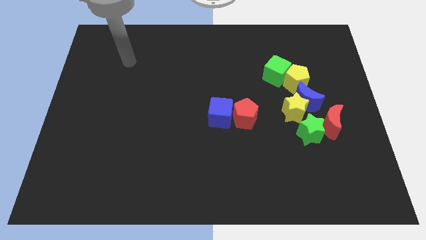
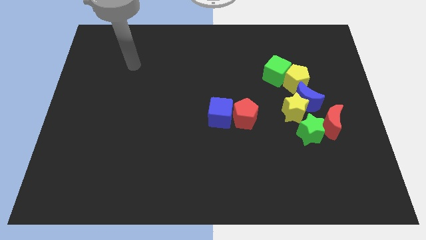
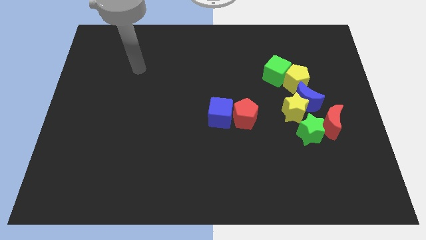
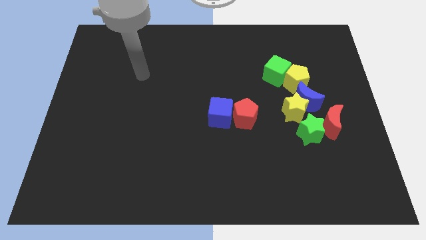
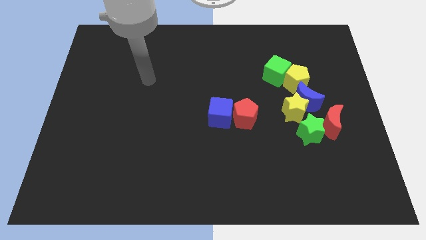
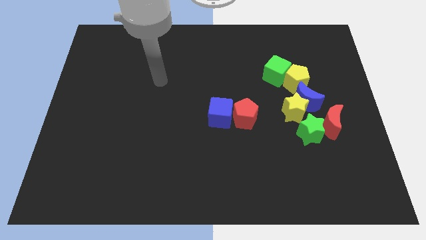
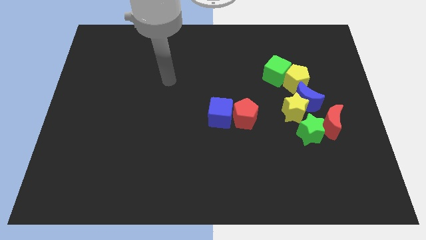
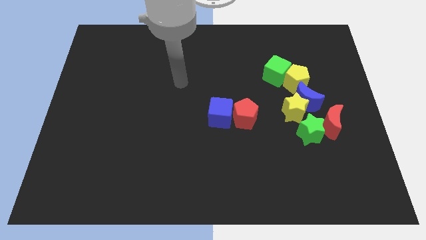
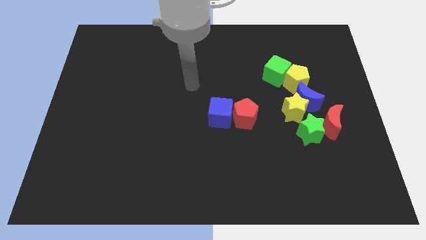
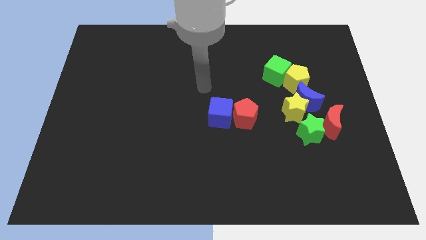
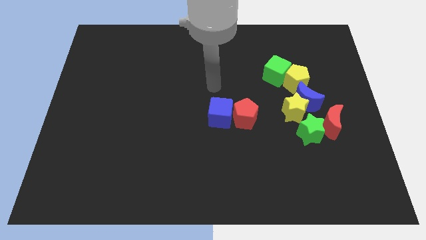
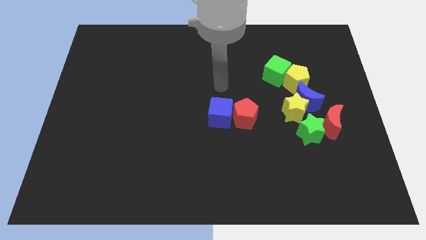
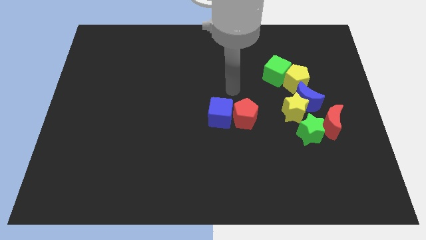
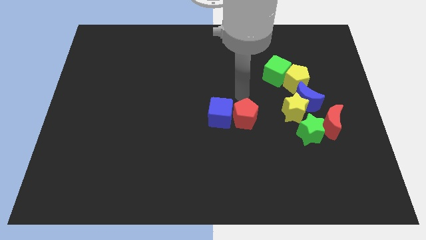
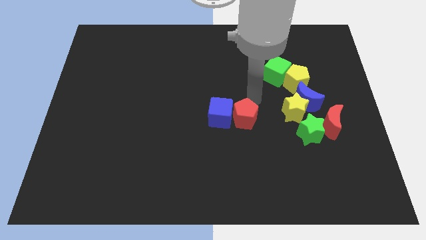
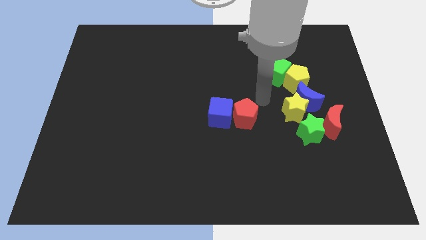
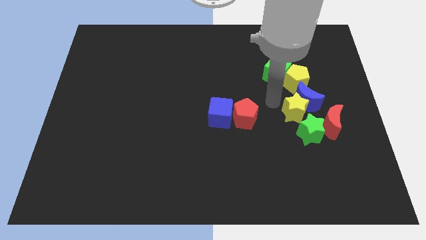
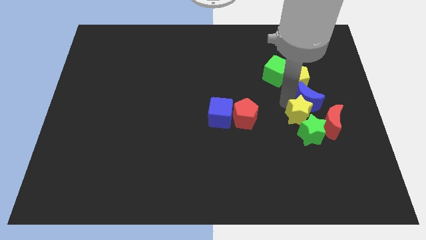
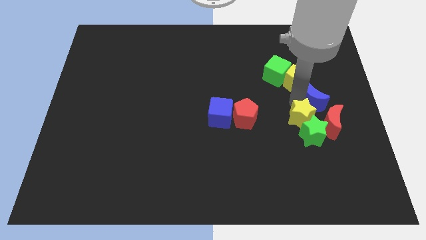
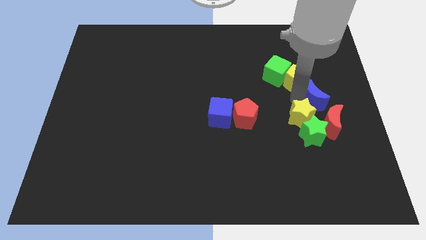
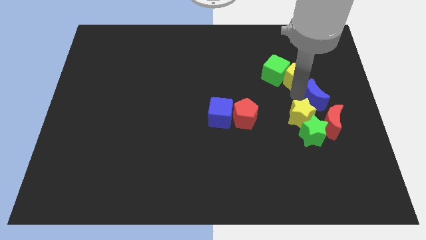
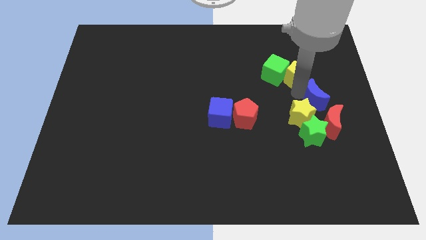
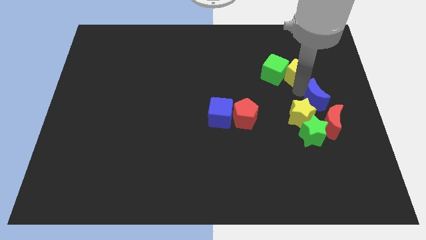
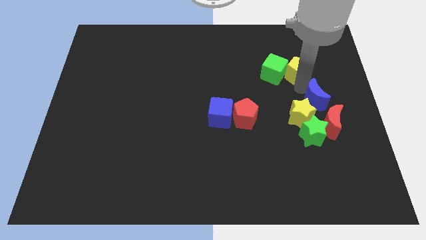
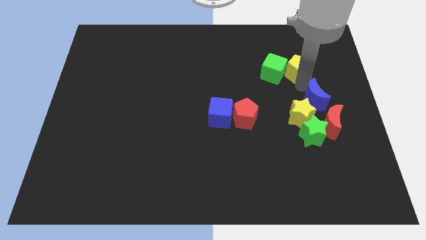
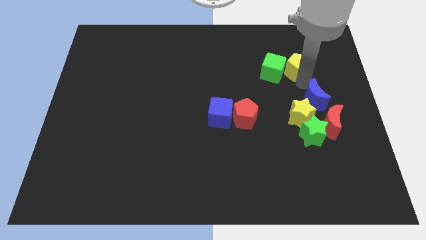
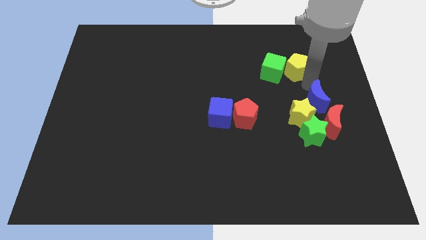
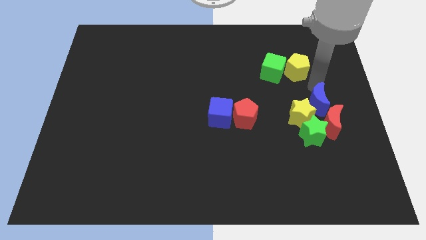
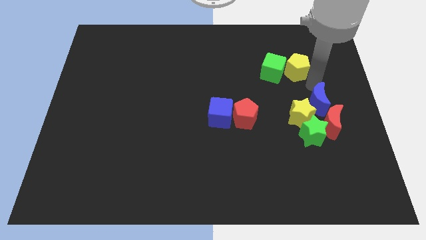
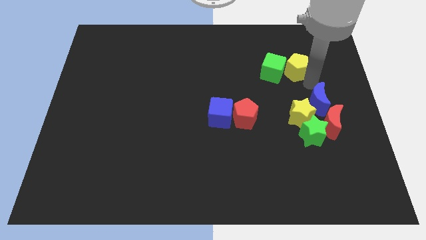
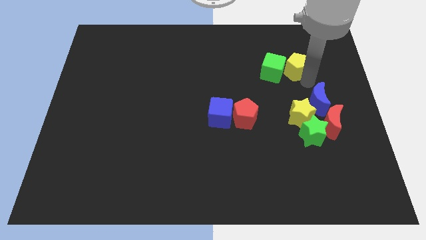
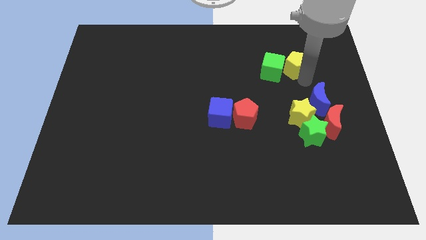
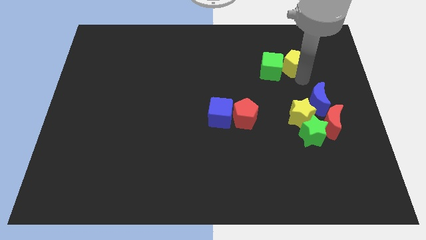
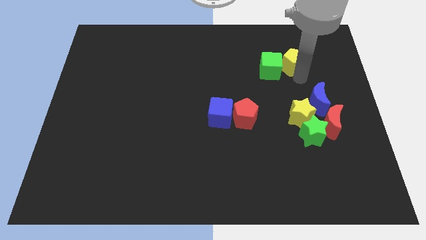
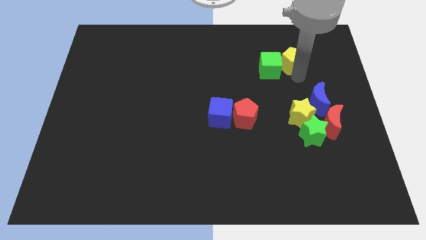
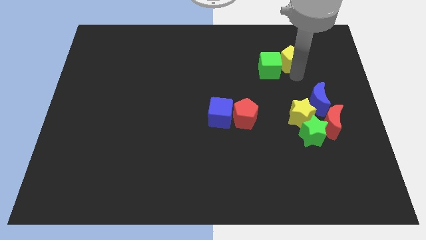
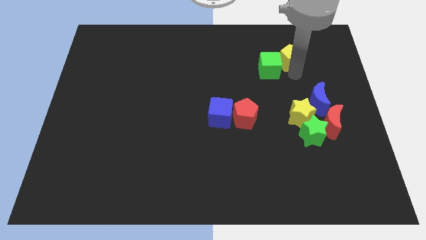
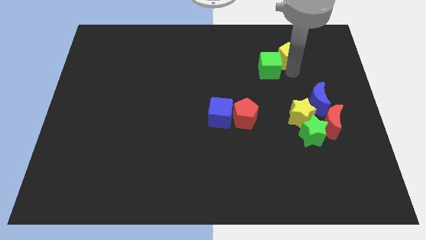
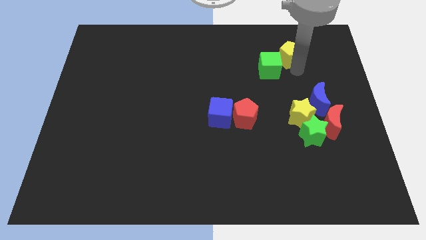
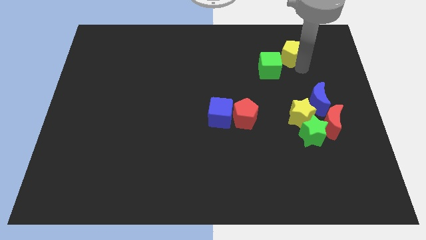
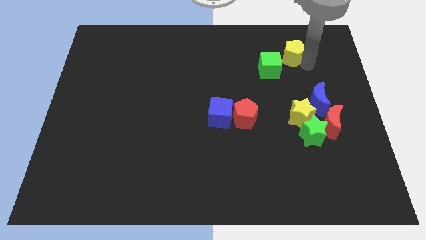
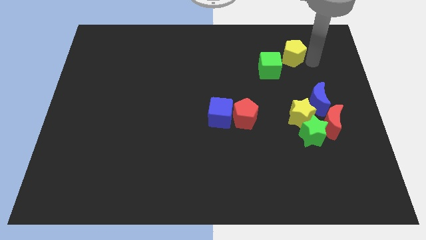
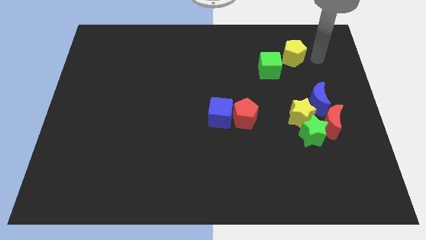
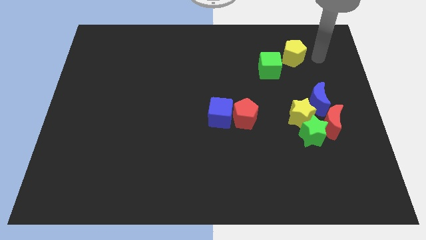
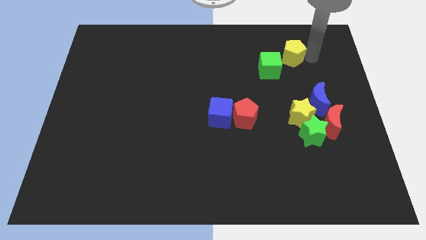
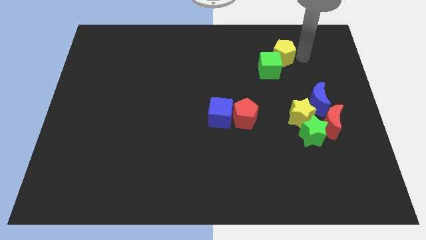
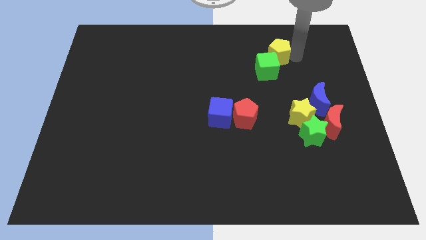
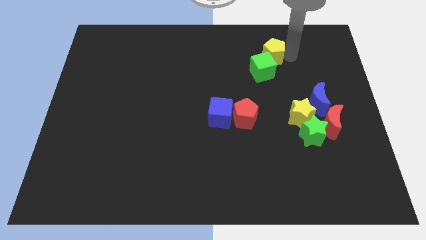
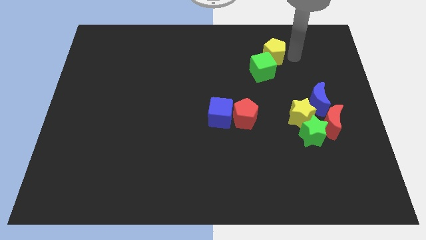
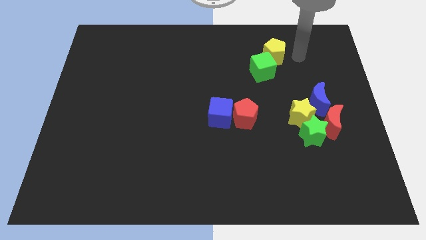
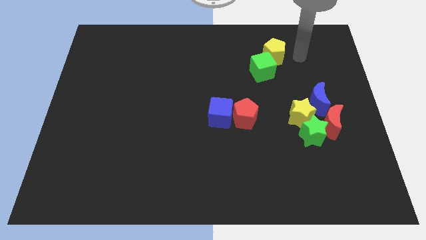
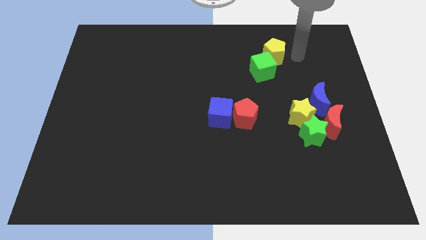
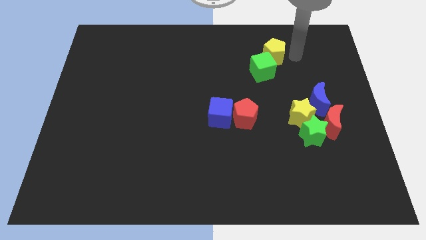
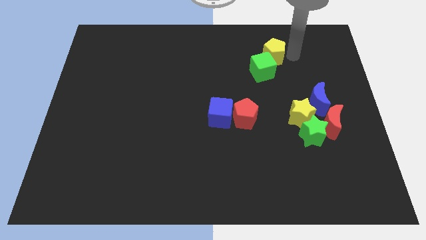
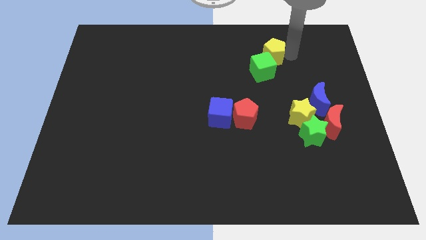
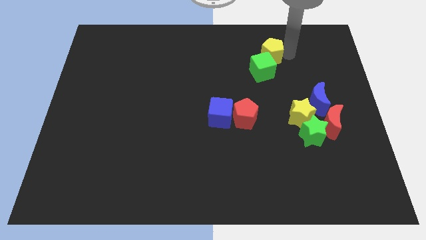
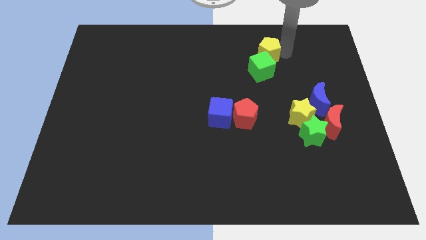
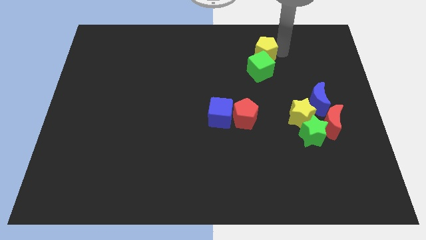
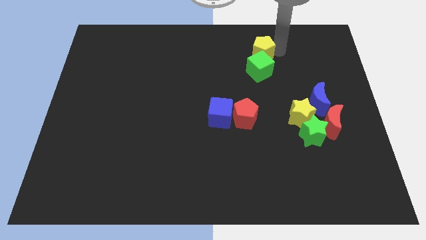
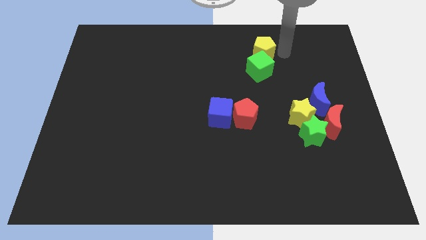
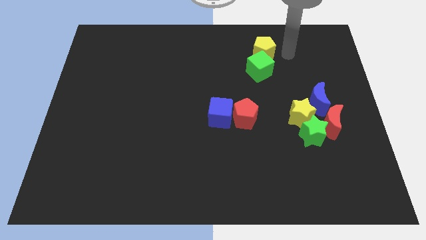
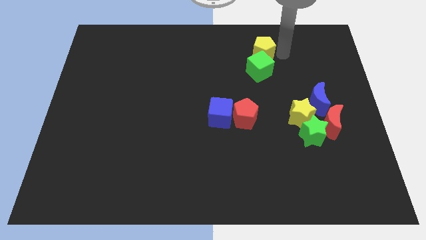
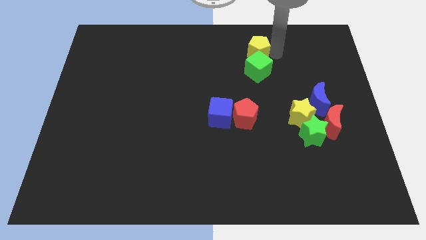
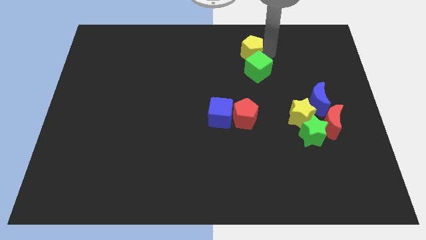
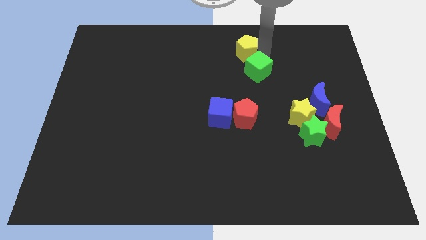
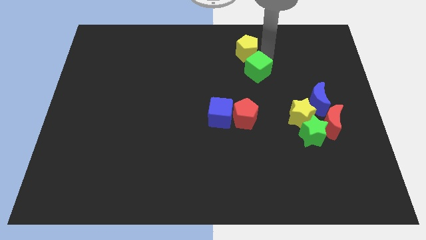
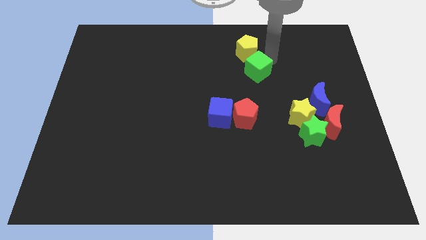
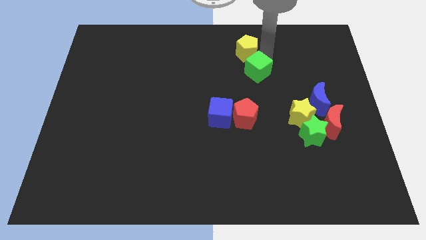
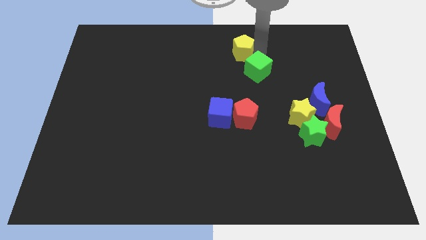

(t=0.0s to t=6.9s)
push the yellow pentagon to the top
